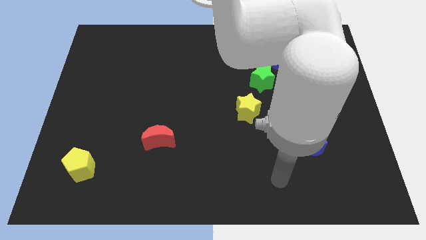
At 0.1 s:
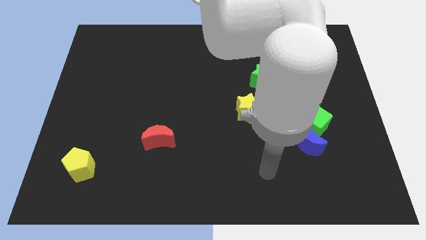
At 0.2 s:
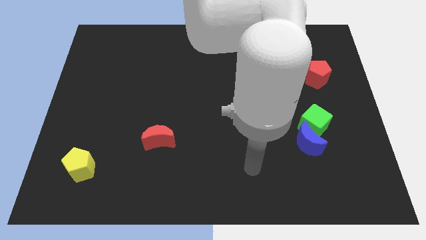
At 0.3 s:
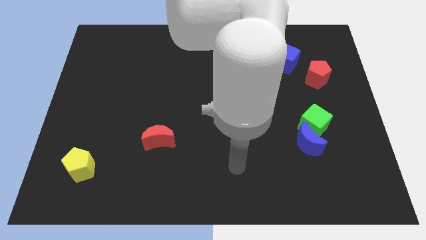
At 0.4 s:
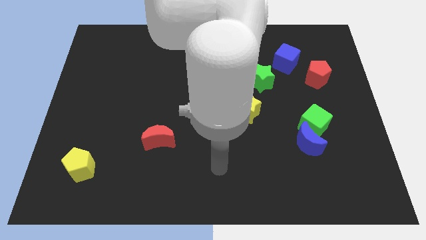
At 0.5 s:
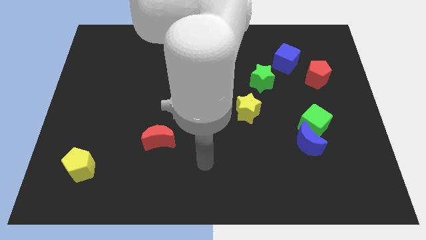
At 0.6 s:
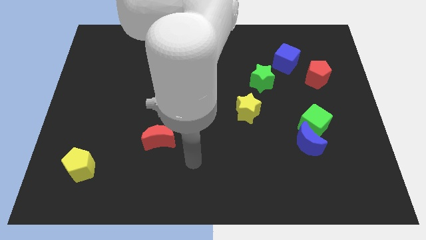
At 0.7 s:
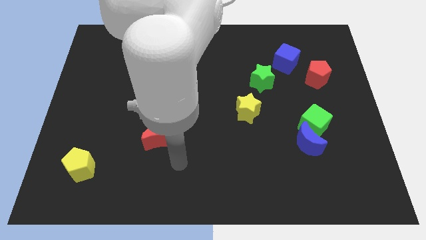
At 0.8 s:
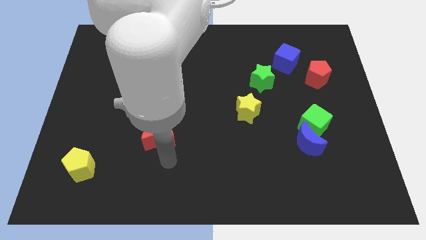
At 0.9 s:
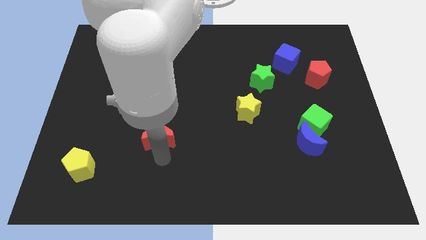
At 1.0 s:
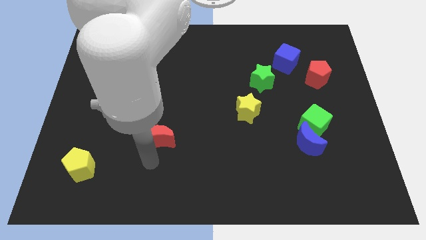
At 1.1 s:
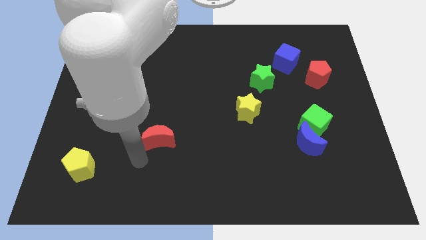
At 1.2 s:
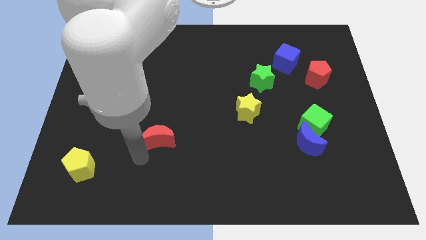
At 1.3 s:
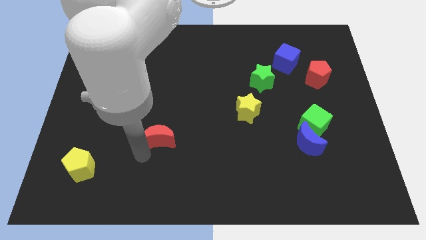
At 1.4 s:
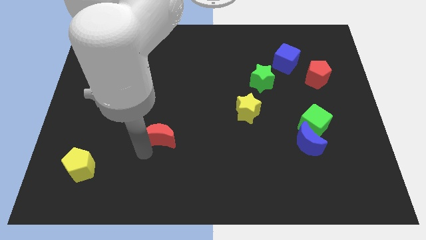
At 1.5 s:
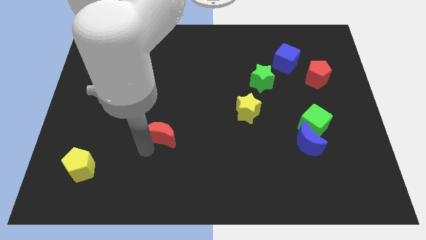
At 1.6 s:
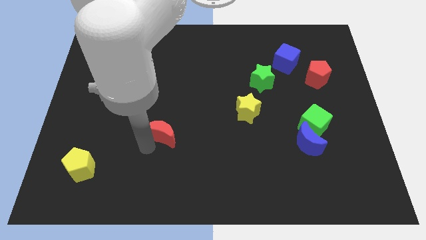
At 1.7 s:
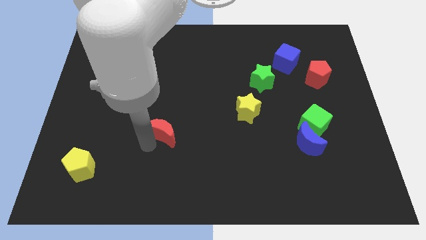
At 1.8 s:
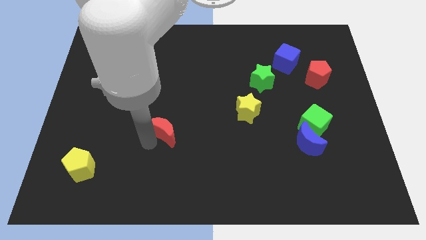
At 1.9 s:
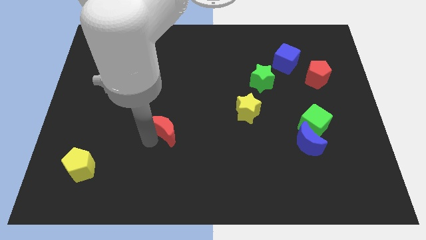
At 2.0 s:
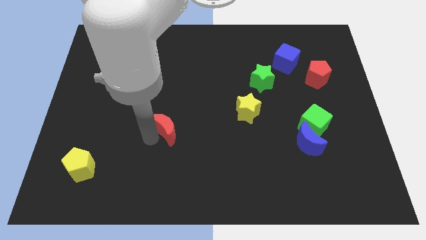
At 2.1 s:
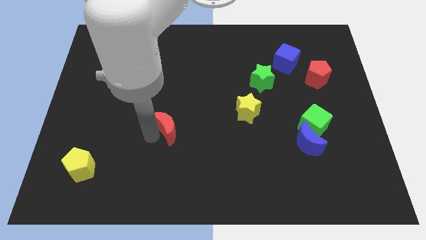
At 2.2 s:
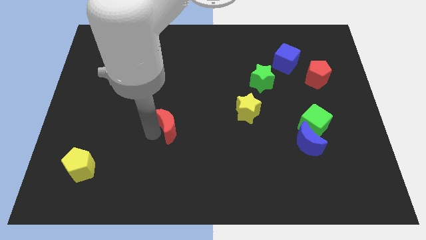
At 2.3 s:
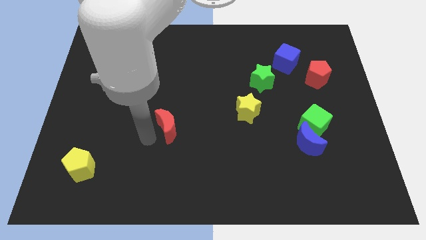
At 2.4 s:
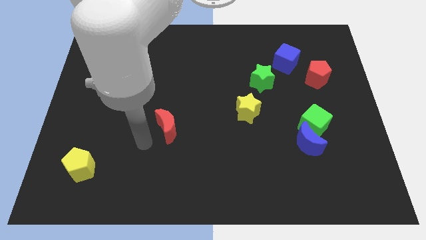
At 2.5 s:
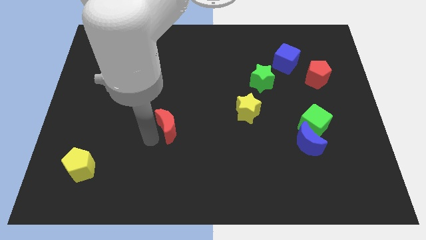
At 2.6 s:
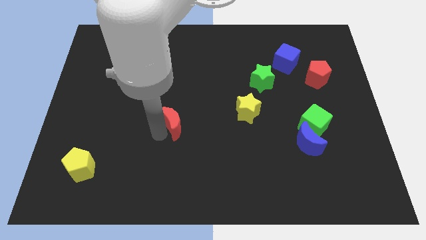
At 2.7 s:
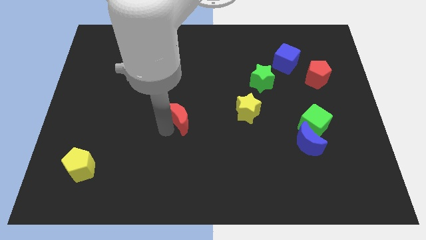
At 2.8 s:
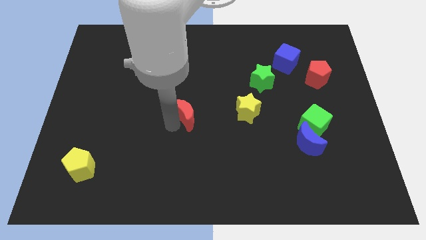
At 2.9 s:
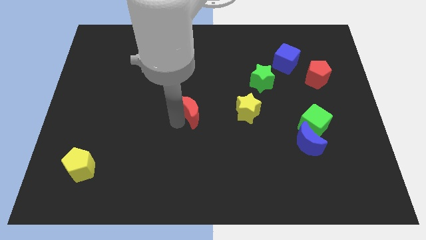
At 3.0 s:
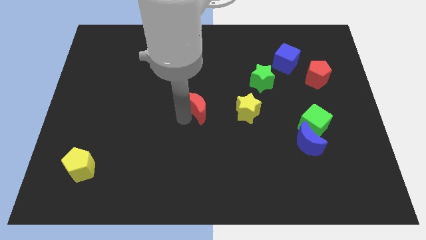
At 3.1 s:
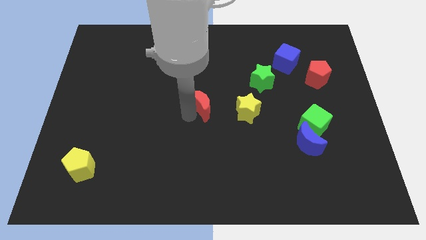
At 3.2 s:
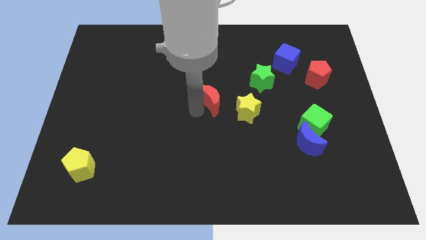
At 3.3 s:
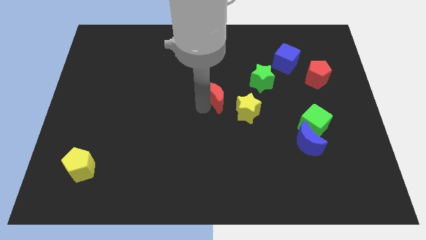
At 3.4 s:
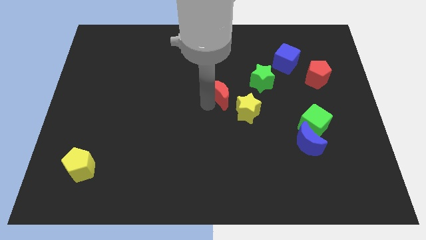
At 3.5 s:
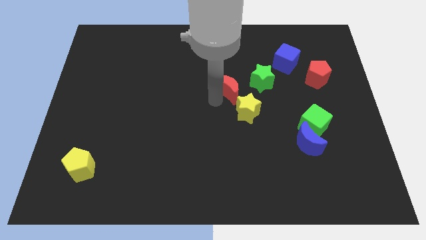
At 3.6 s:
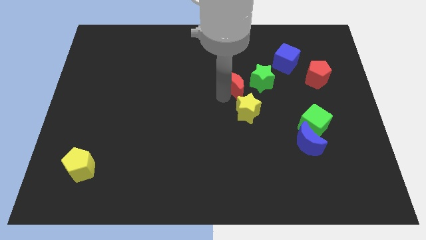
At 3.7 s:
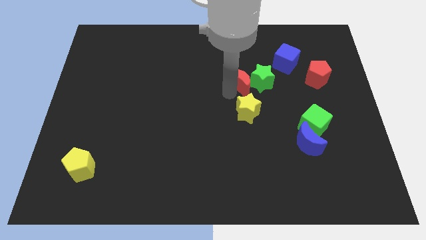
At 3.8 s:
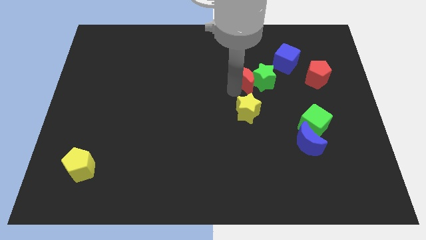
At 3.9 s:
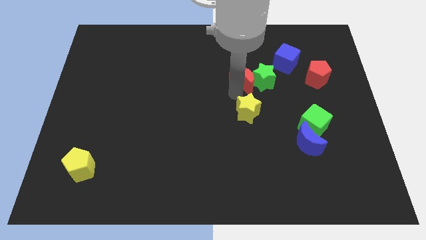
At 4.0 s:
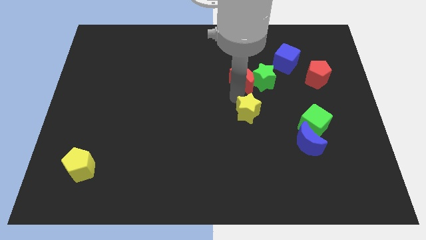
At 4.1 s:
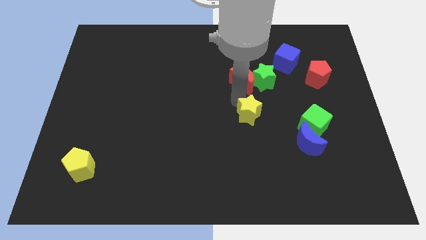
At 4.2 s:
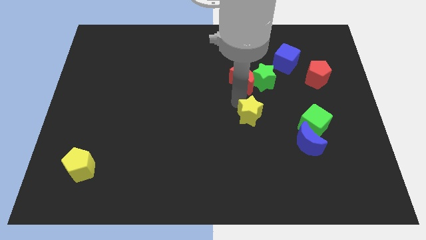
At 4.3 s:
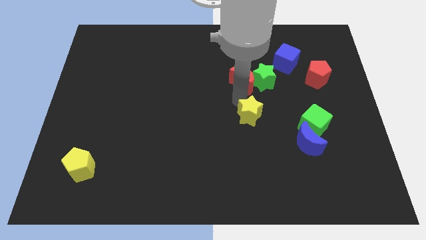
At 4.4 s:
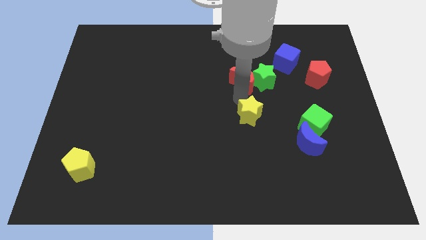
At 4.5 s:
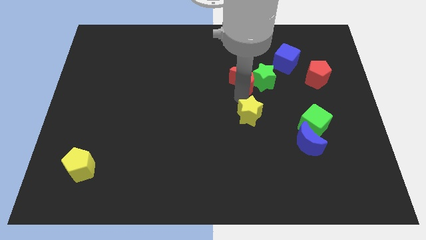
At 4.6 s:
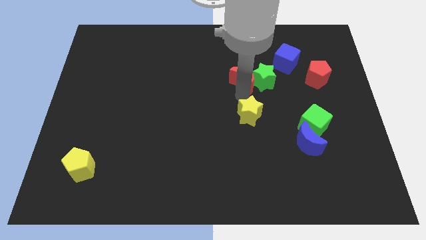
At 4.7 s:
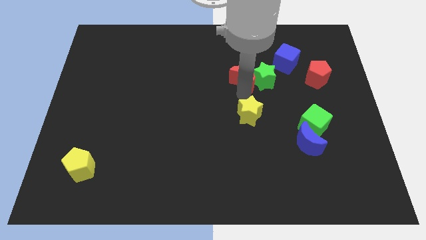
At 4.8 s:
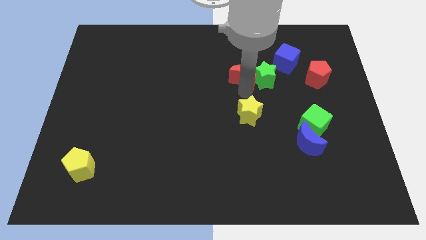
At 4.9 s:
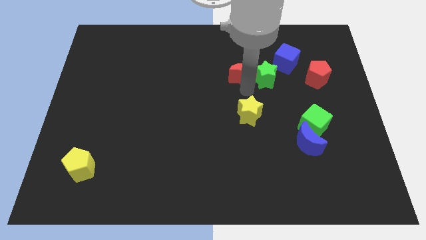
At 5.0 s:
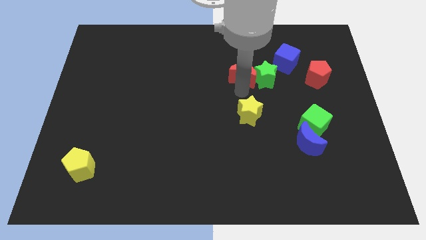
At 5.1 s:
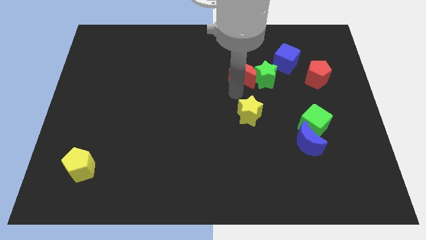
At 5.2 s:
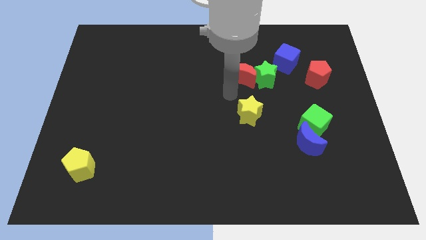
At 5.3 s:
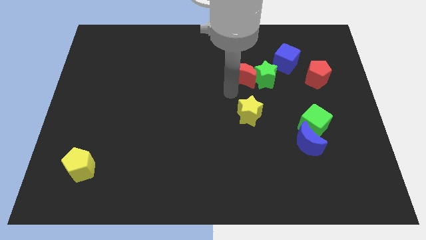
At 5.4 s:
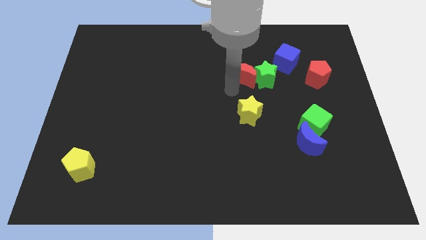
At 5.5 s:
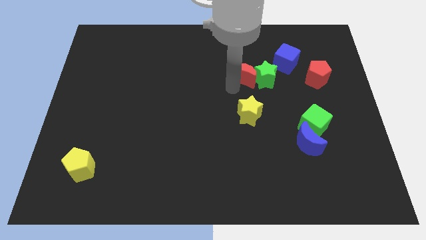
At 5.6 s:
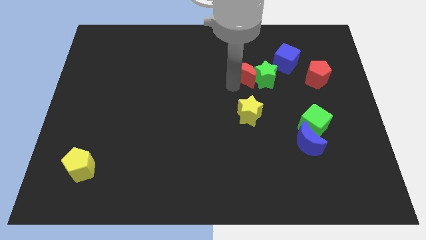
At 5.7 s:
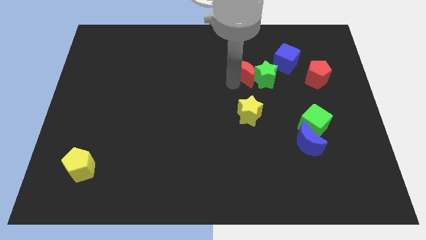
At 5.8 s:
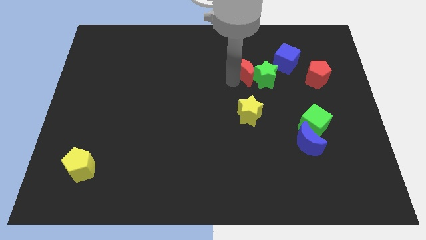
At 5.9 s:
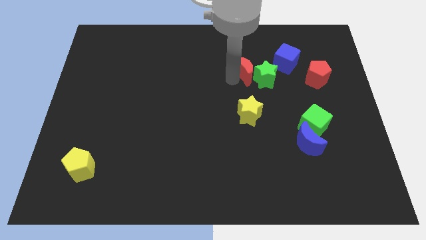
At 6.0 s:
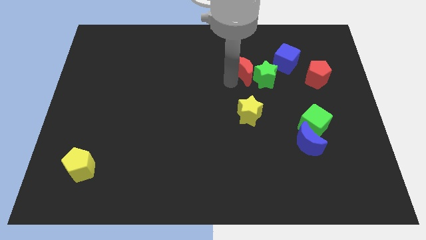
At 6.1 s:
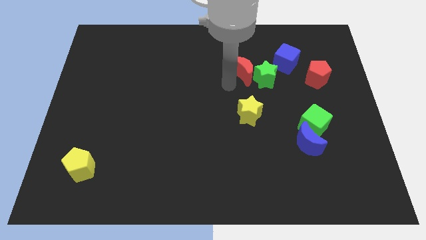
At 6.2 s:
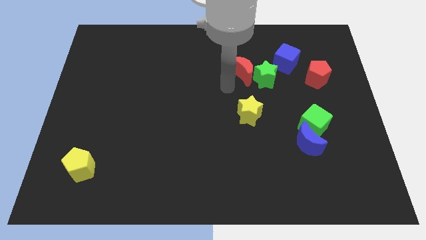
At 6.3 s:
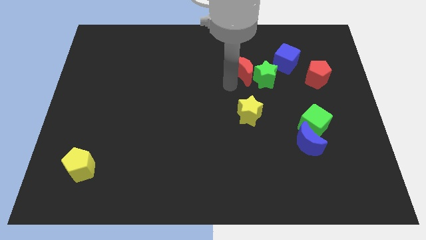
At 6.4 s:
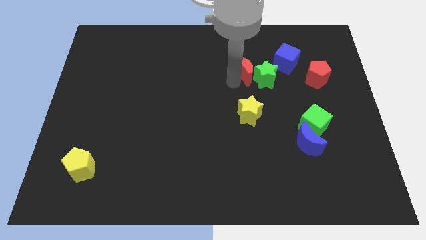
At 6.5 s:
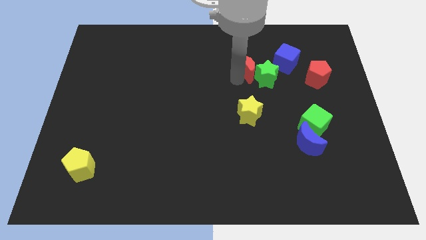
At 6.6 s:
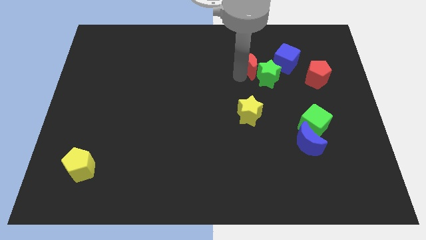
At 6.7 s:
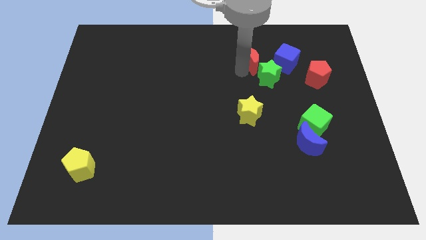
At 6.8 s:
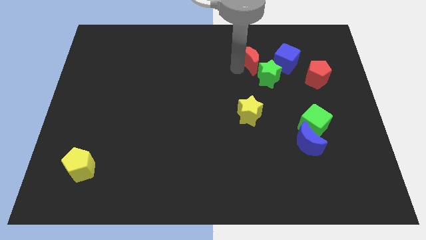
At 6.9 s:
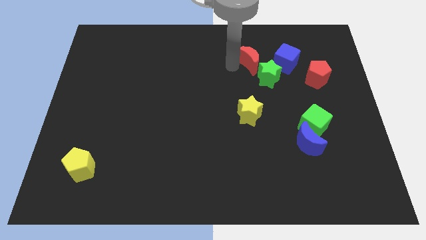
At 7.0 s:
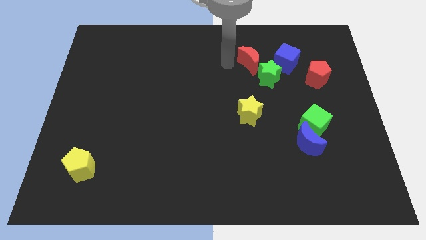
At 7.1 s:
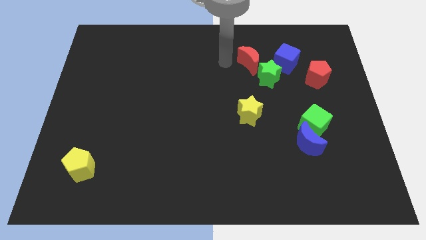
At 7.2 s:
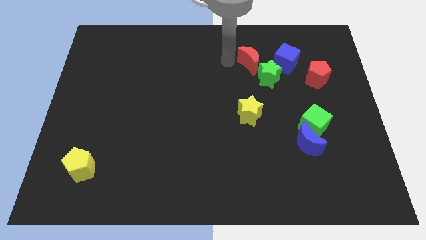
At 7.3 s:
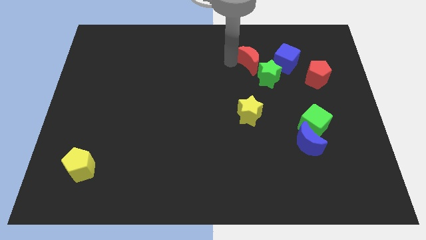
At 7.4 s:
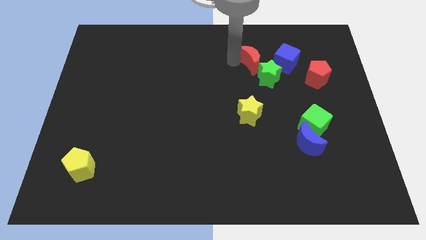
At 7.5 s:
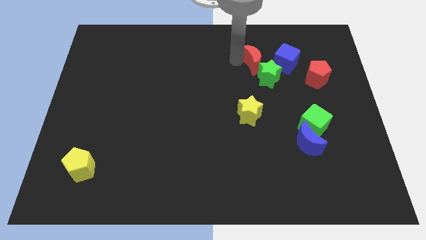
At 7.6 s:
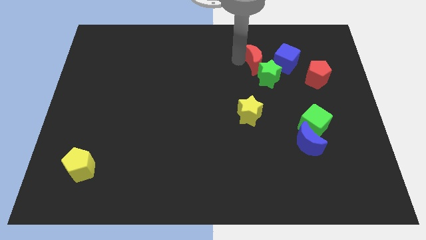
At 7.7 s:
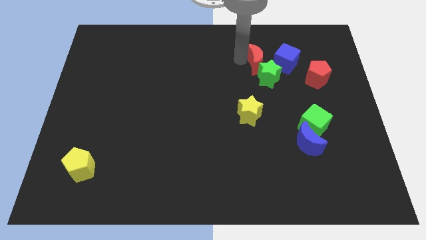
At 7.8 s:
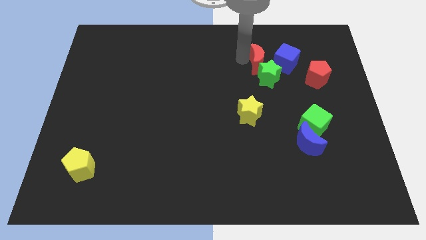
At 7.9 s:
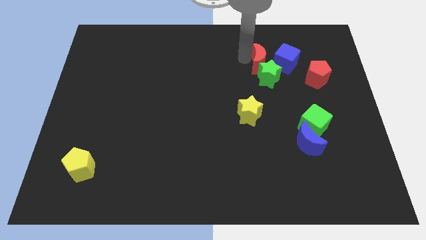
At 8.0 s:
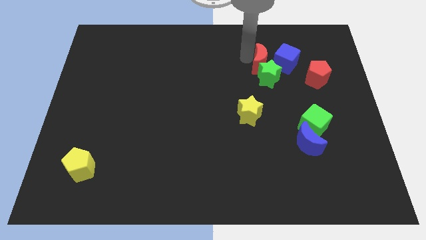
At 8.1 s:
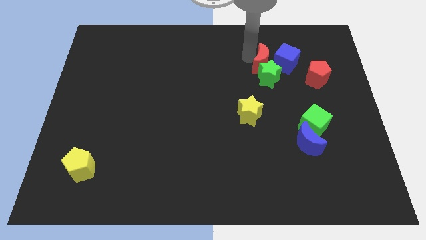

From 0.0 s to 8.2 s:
slide the red moon next to the blue cube
